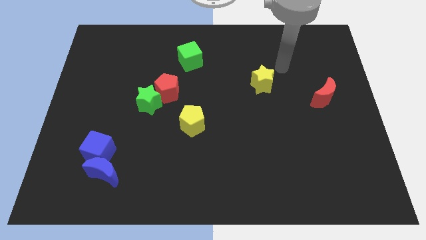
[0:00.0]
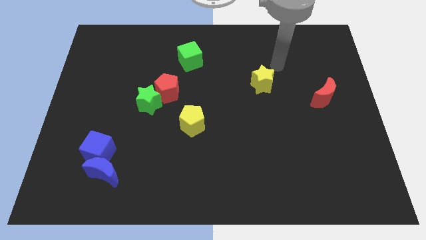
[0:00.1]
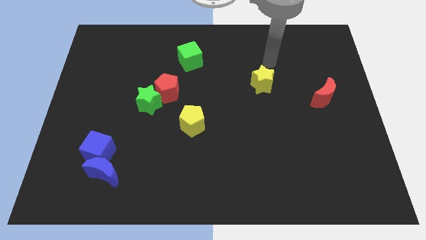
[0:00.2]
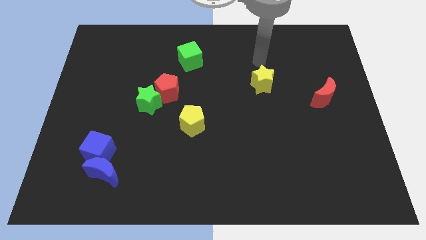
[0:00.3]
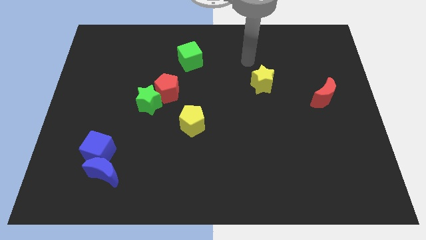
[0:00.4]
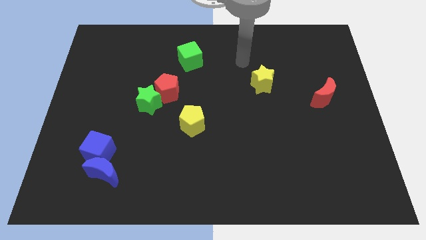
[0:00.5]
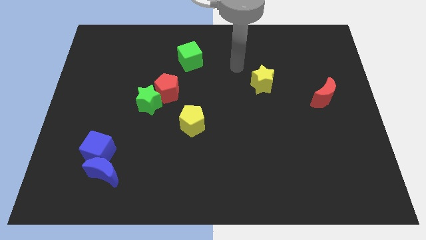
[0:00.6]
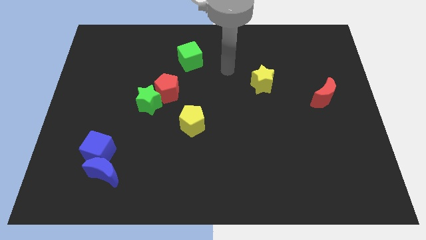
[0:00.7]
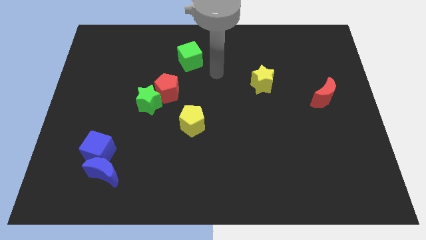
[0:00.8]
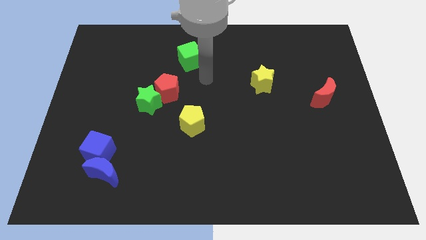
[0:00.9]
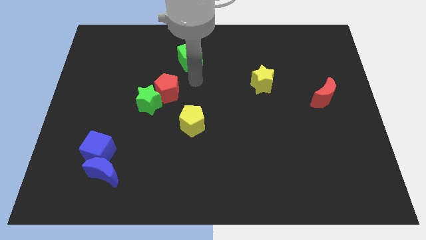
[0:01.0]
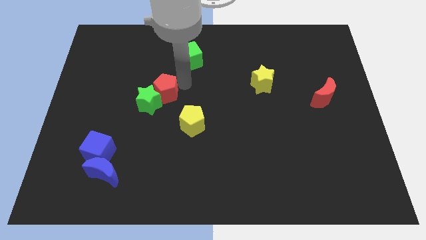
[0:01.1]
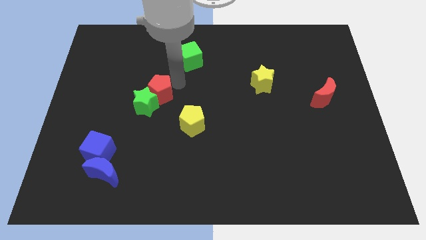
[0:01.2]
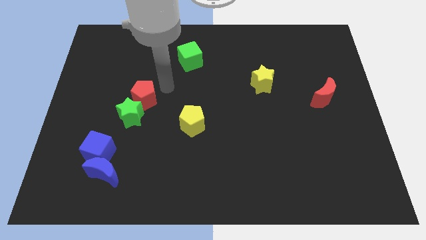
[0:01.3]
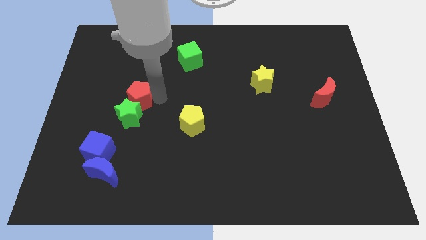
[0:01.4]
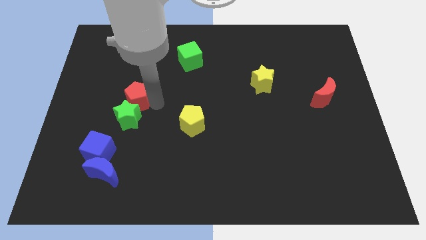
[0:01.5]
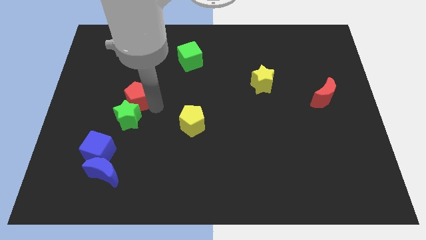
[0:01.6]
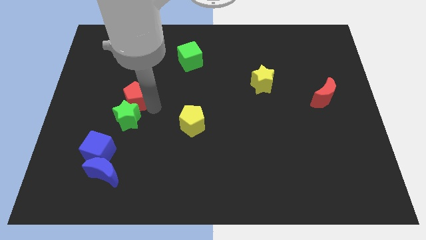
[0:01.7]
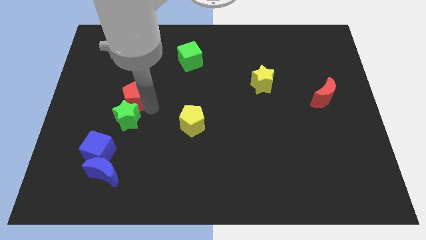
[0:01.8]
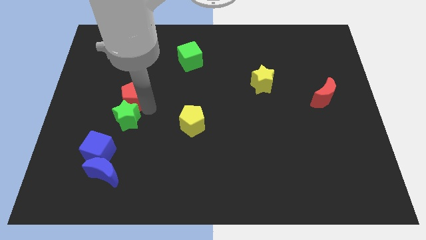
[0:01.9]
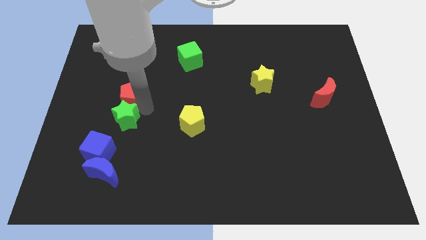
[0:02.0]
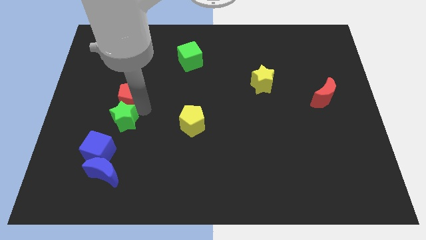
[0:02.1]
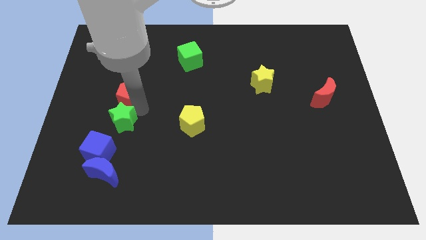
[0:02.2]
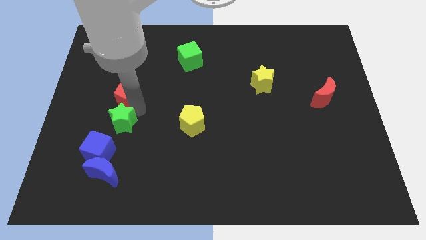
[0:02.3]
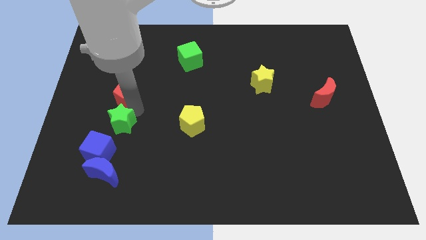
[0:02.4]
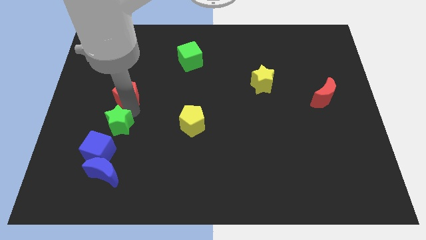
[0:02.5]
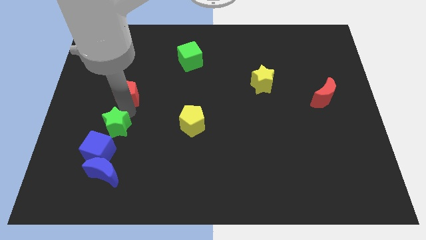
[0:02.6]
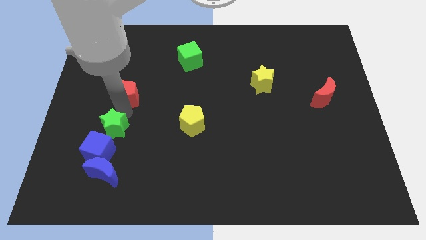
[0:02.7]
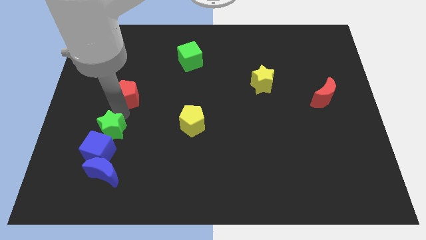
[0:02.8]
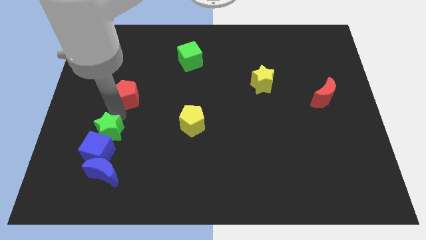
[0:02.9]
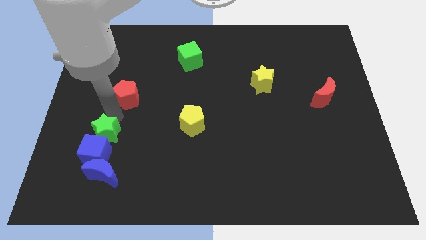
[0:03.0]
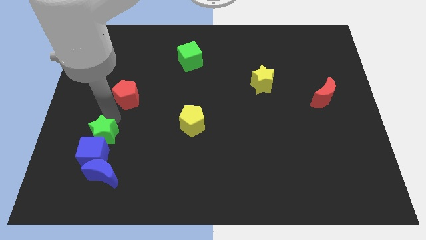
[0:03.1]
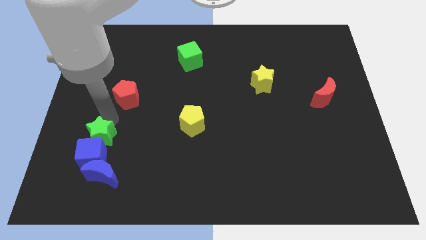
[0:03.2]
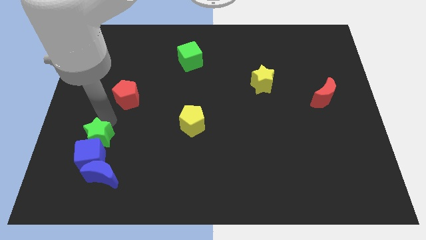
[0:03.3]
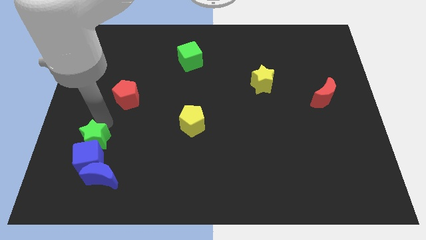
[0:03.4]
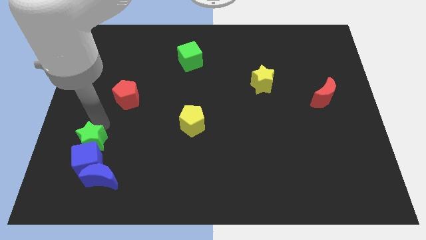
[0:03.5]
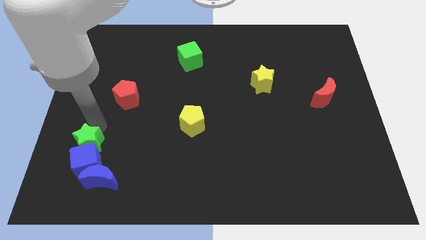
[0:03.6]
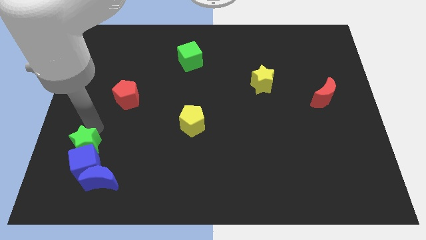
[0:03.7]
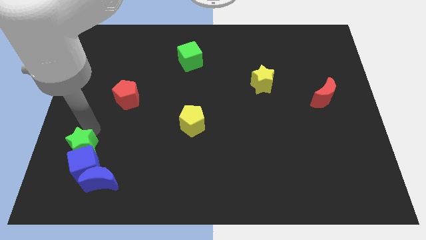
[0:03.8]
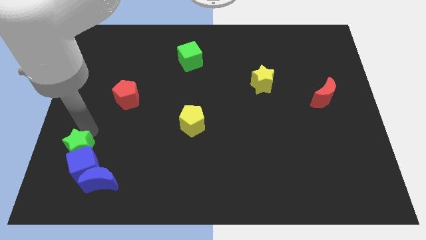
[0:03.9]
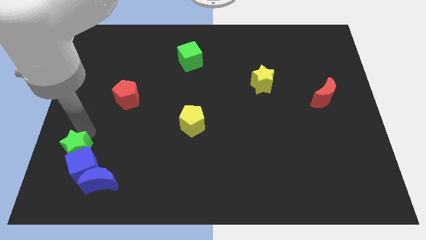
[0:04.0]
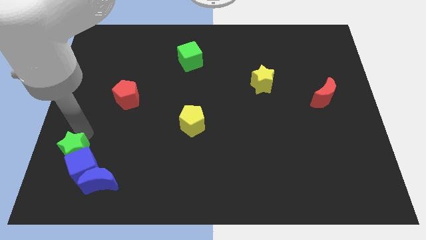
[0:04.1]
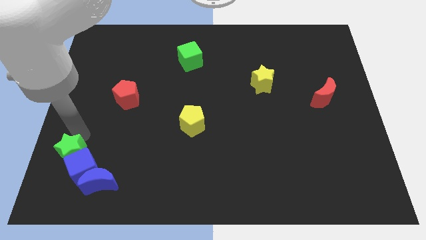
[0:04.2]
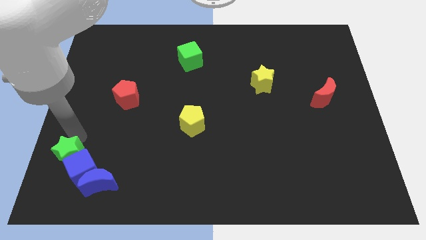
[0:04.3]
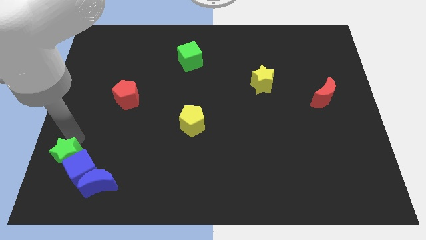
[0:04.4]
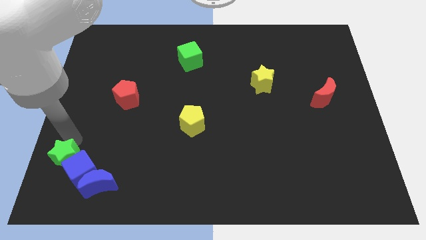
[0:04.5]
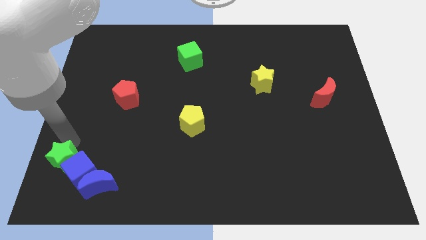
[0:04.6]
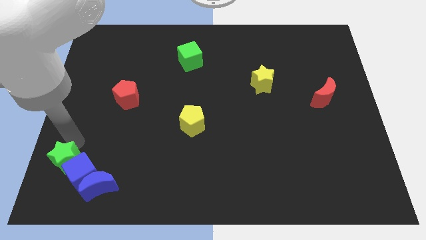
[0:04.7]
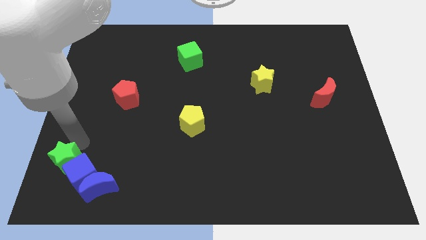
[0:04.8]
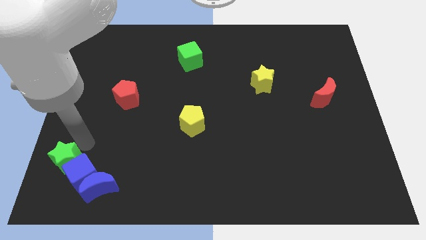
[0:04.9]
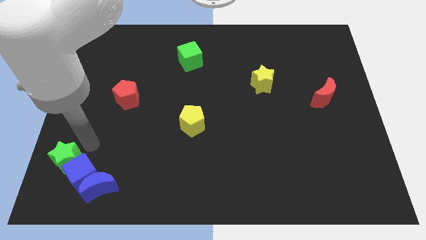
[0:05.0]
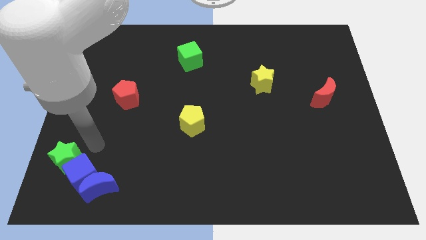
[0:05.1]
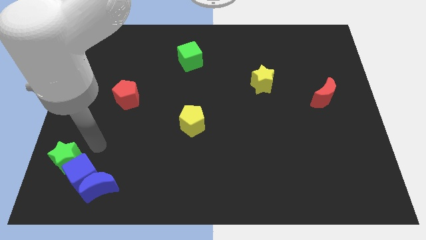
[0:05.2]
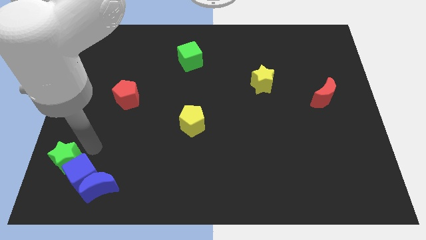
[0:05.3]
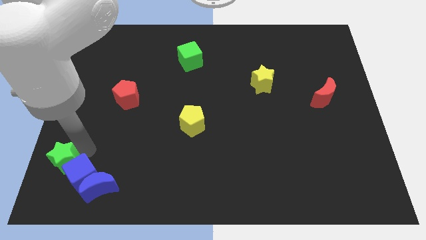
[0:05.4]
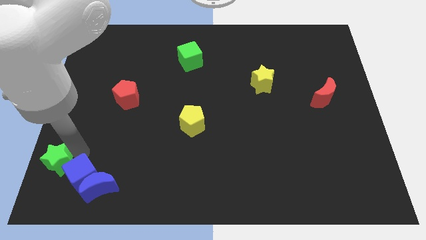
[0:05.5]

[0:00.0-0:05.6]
move the green star to the bottom left corner

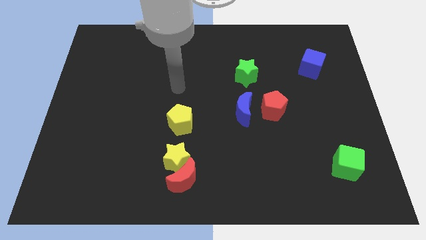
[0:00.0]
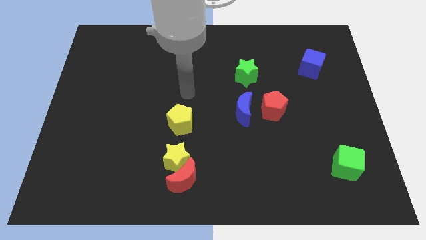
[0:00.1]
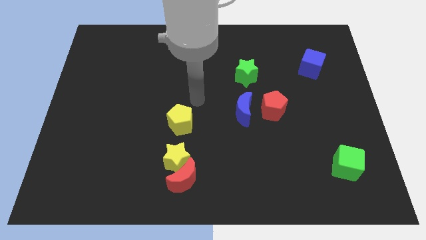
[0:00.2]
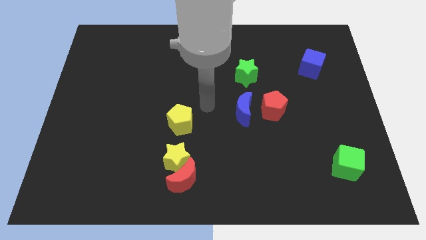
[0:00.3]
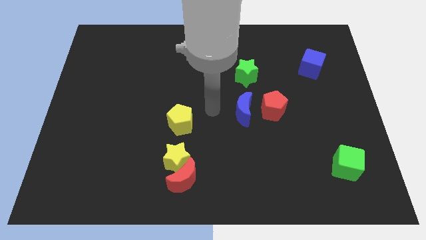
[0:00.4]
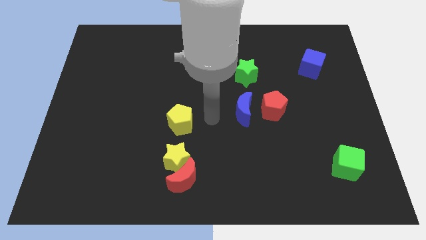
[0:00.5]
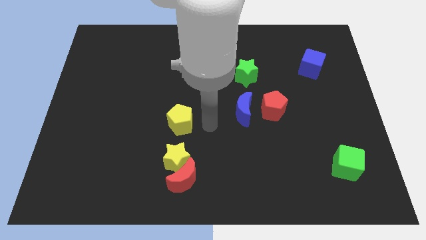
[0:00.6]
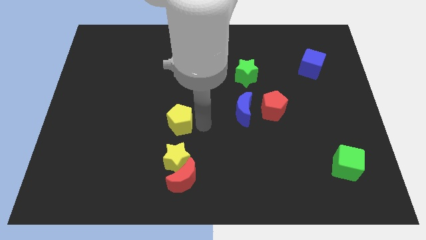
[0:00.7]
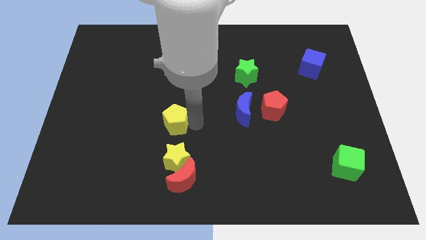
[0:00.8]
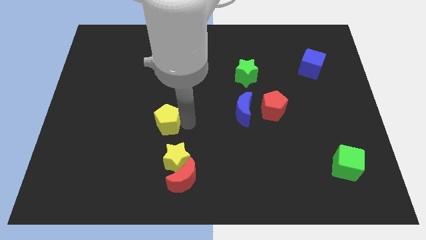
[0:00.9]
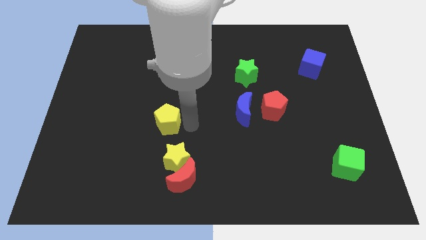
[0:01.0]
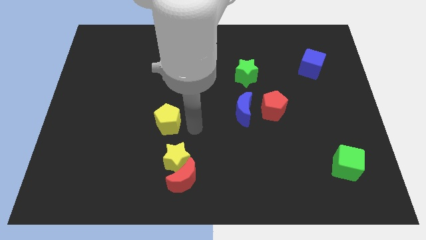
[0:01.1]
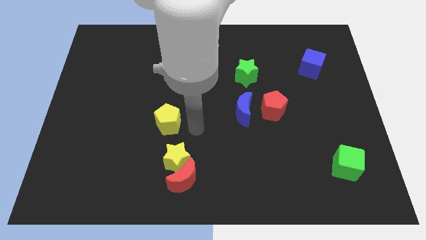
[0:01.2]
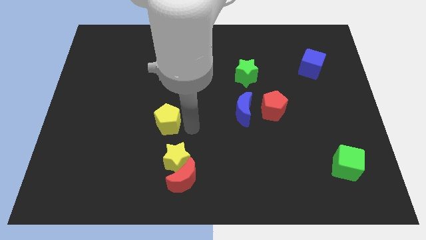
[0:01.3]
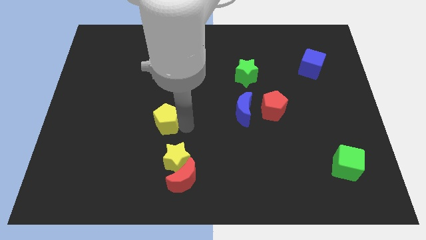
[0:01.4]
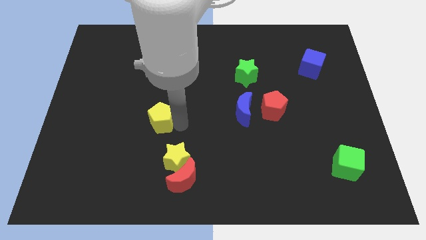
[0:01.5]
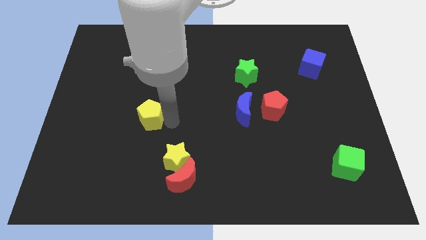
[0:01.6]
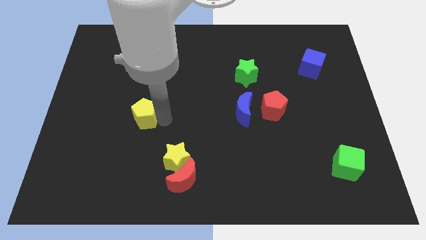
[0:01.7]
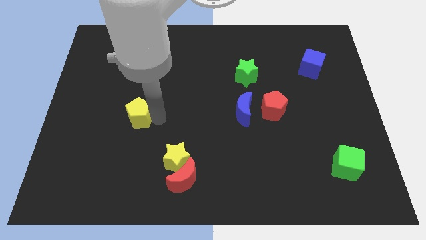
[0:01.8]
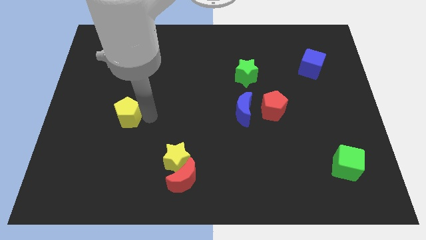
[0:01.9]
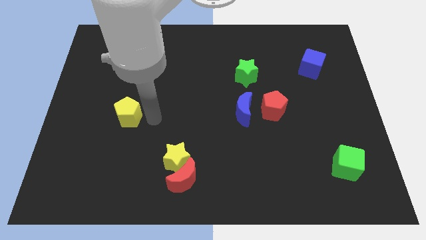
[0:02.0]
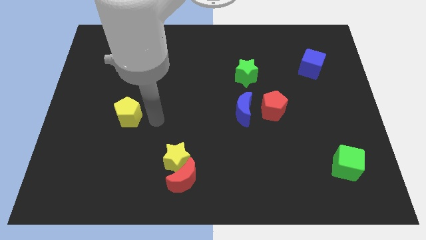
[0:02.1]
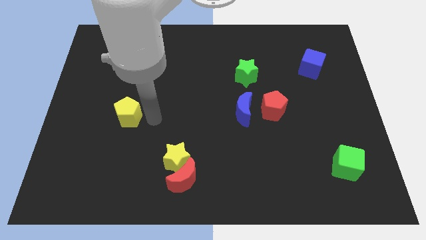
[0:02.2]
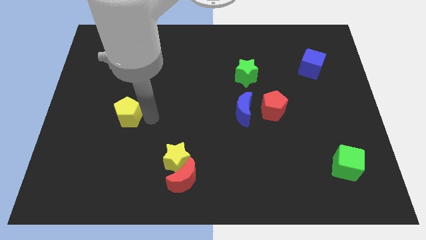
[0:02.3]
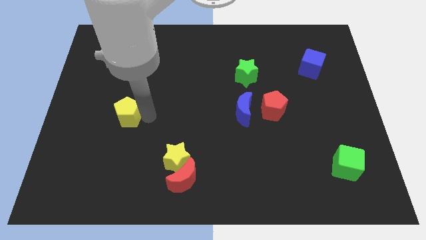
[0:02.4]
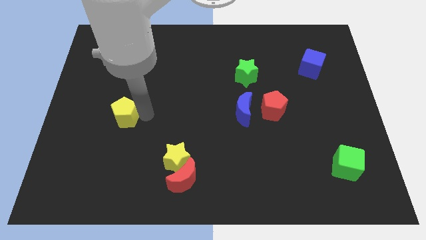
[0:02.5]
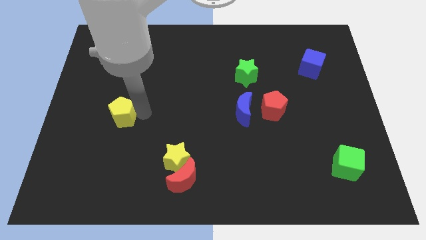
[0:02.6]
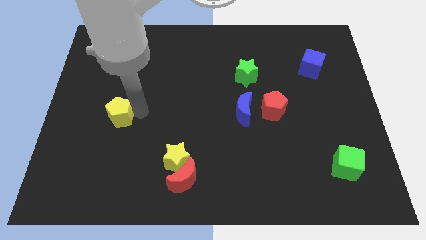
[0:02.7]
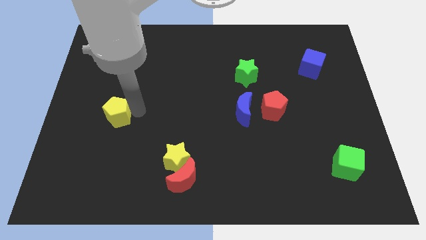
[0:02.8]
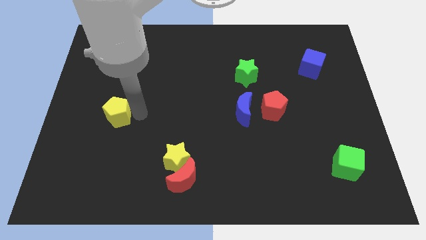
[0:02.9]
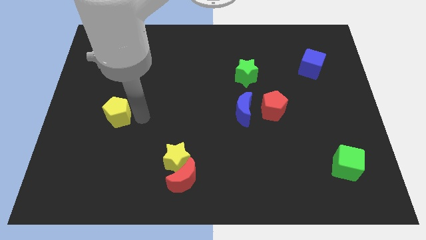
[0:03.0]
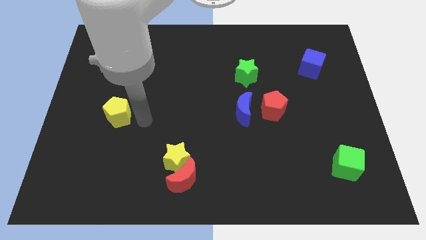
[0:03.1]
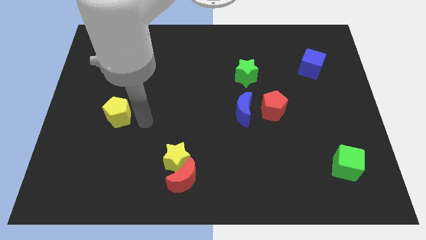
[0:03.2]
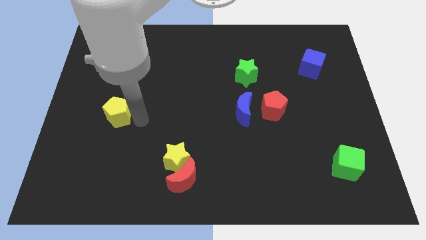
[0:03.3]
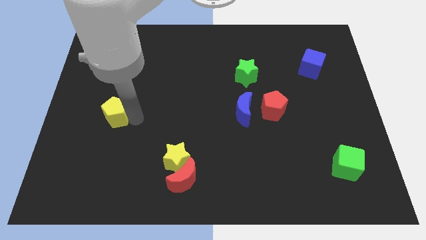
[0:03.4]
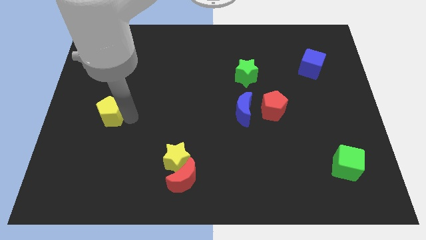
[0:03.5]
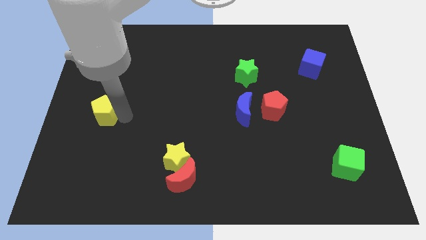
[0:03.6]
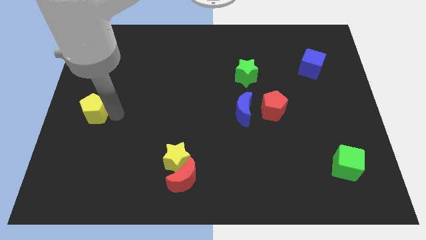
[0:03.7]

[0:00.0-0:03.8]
move the yellow pentagon to the center left
